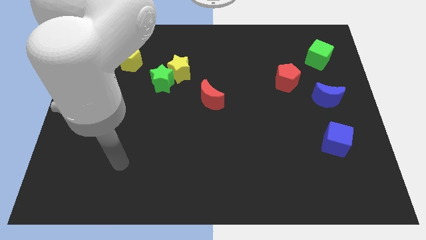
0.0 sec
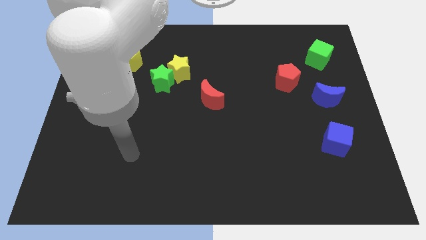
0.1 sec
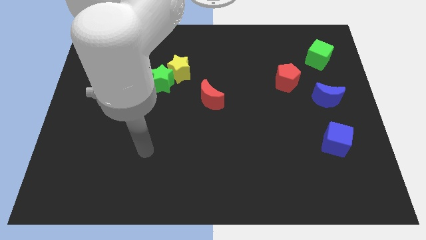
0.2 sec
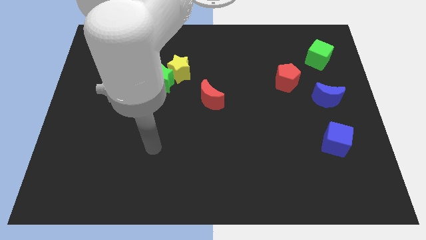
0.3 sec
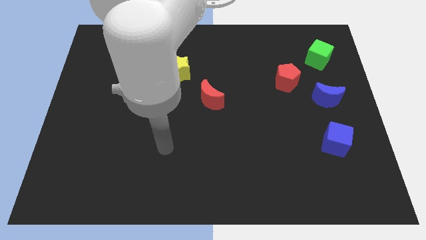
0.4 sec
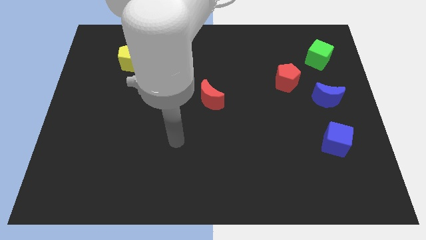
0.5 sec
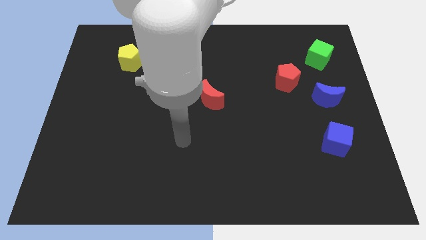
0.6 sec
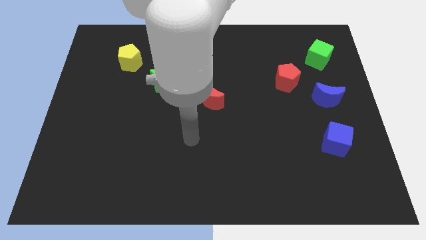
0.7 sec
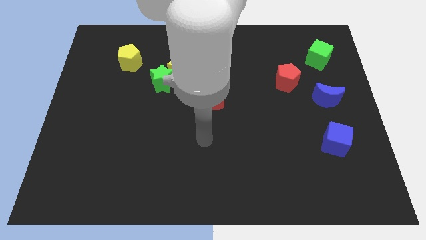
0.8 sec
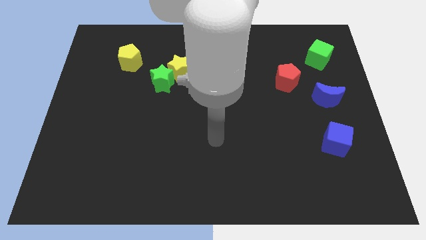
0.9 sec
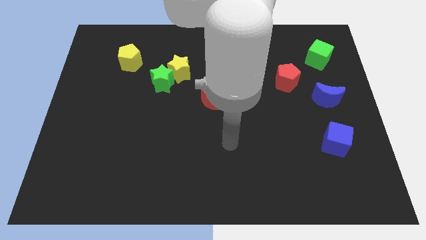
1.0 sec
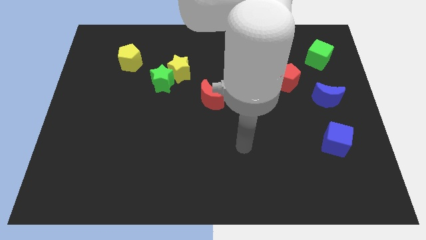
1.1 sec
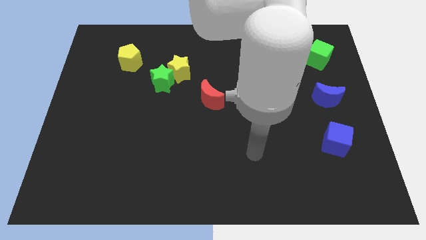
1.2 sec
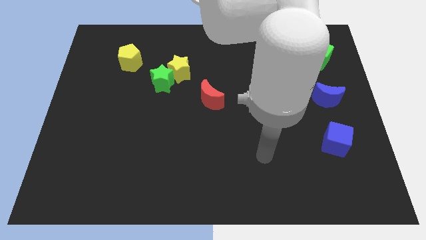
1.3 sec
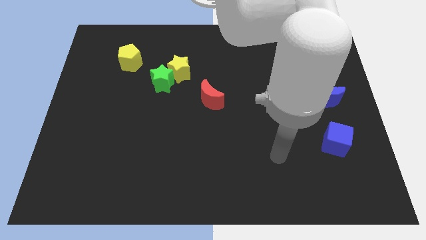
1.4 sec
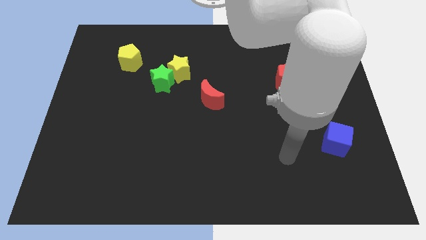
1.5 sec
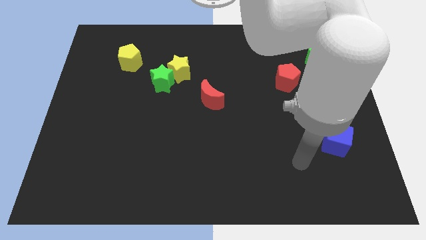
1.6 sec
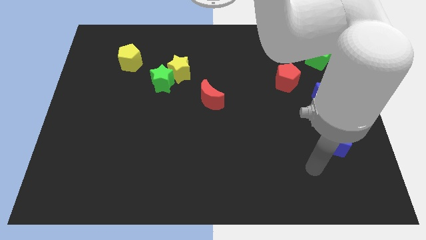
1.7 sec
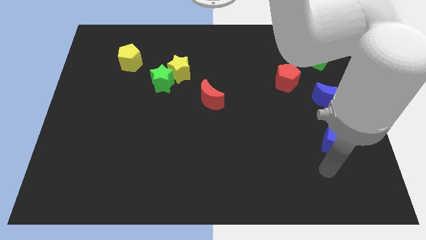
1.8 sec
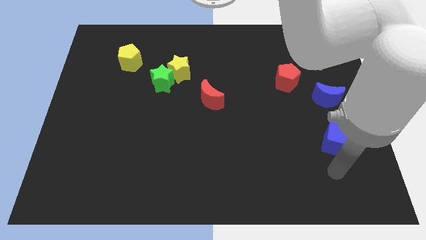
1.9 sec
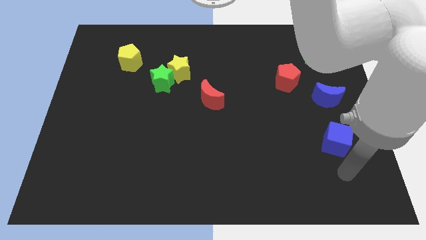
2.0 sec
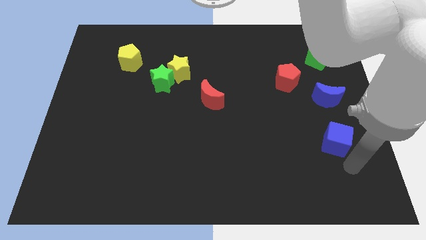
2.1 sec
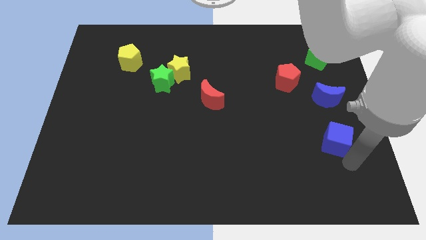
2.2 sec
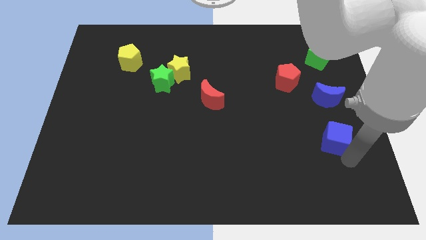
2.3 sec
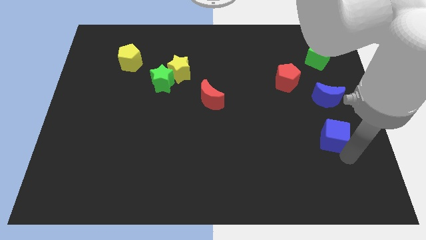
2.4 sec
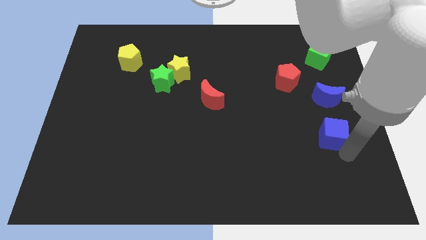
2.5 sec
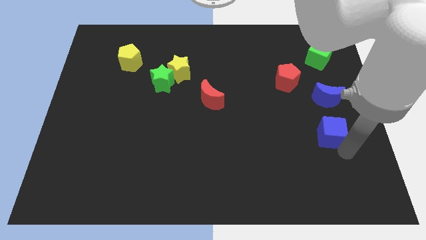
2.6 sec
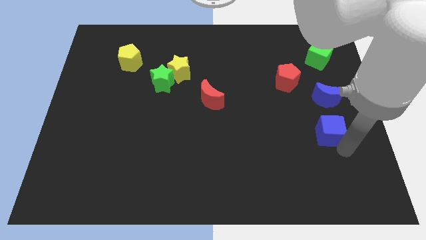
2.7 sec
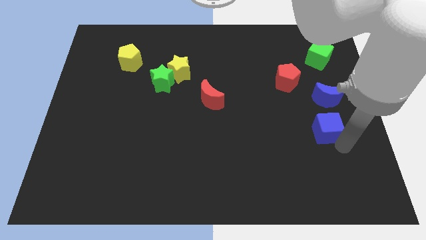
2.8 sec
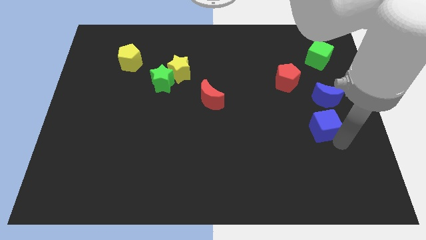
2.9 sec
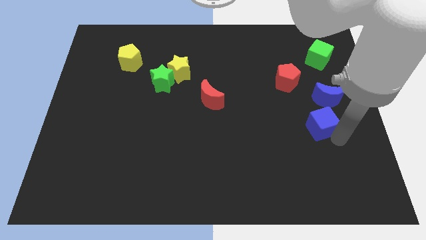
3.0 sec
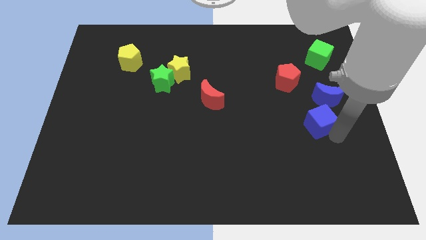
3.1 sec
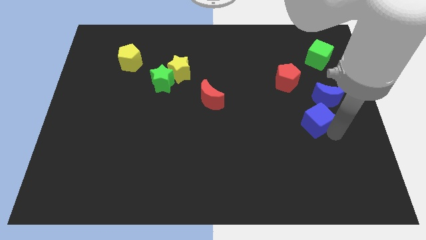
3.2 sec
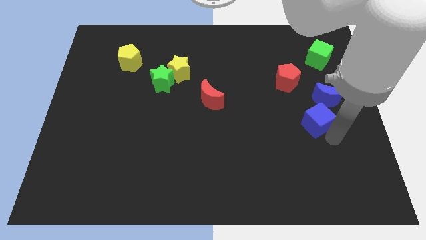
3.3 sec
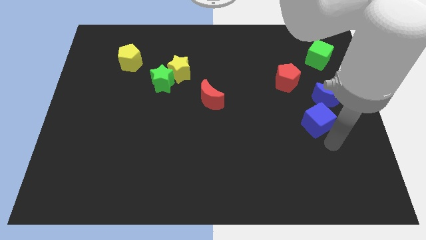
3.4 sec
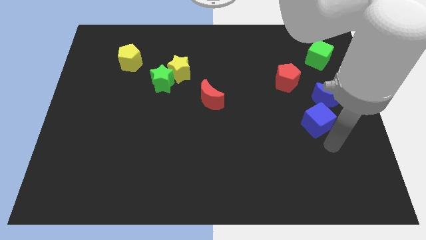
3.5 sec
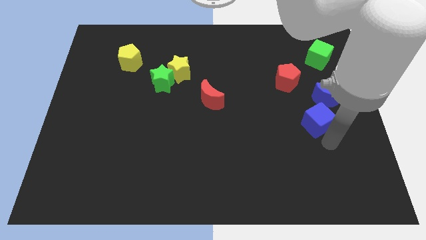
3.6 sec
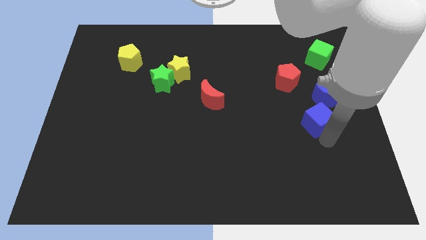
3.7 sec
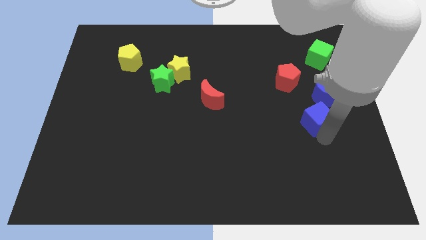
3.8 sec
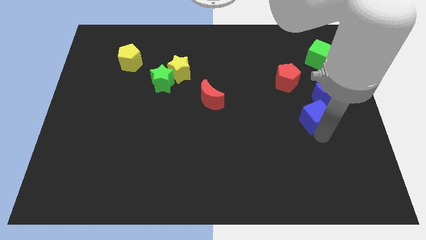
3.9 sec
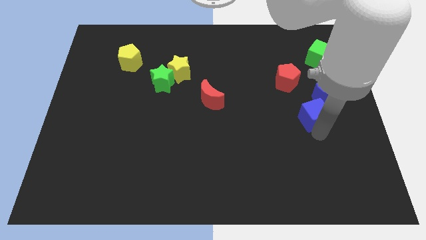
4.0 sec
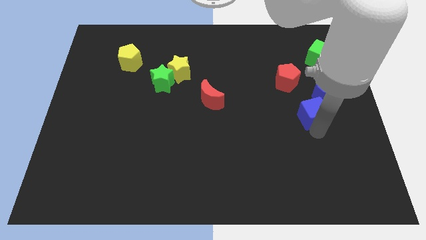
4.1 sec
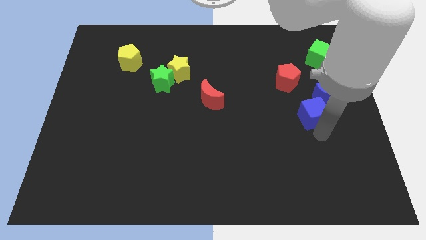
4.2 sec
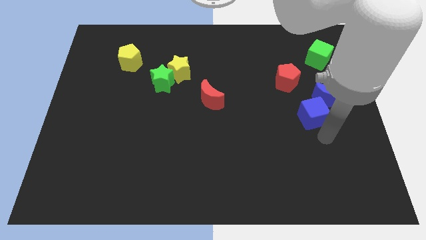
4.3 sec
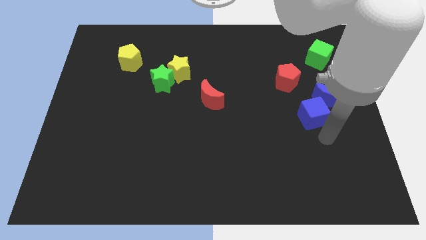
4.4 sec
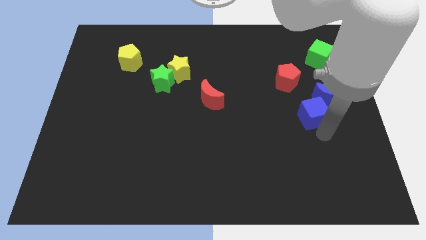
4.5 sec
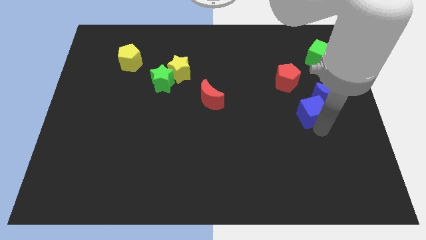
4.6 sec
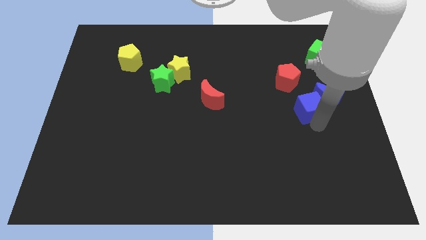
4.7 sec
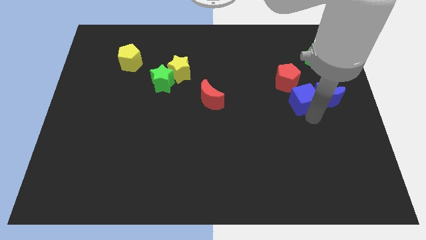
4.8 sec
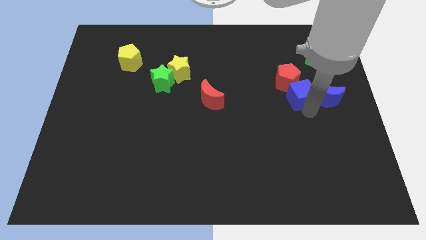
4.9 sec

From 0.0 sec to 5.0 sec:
push the blue cube towards the red pentagon

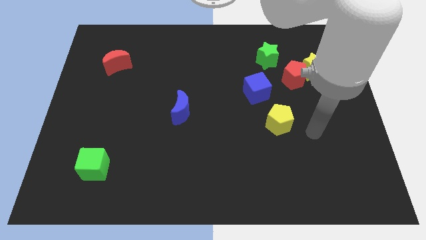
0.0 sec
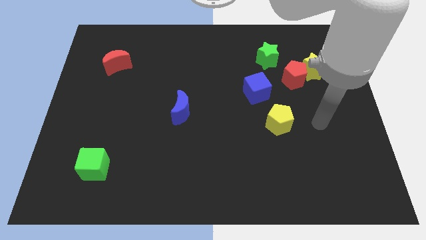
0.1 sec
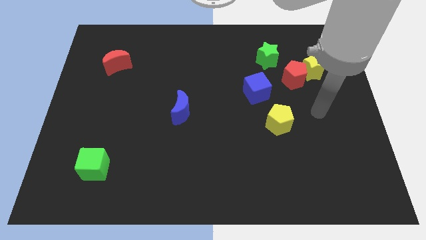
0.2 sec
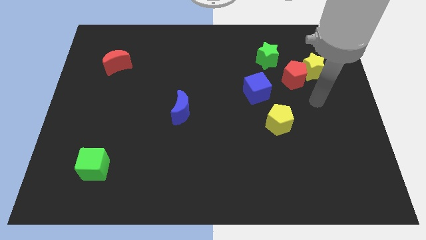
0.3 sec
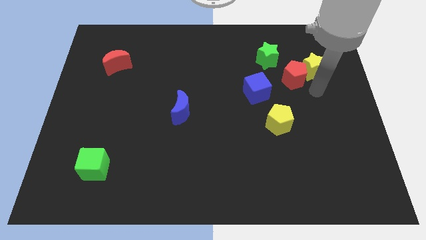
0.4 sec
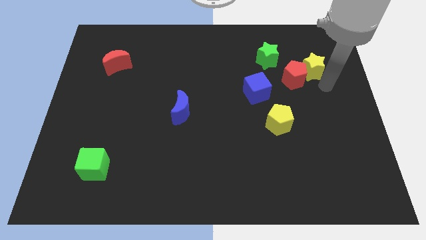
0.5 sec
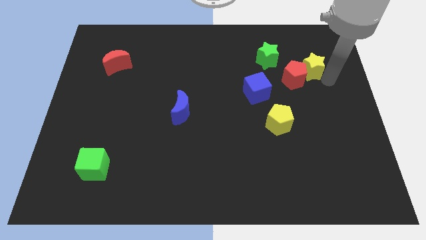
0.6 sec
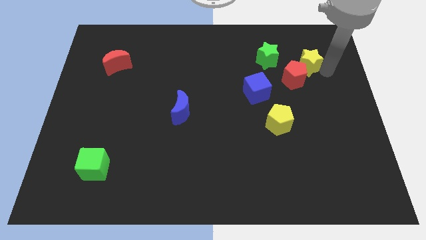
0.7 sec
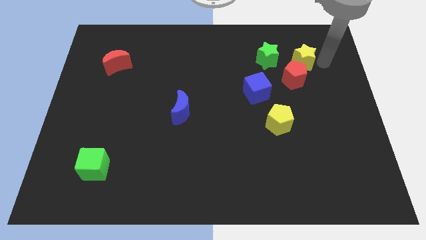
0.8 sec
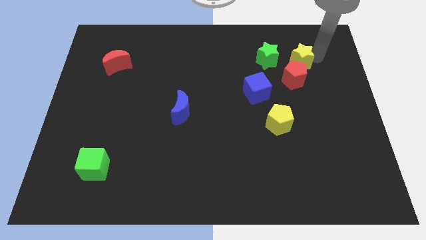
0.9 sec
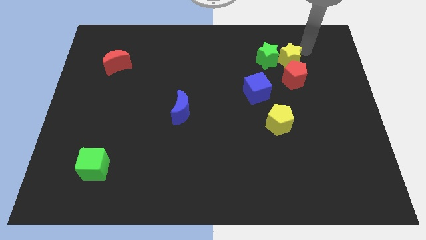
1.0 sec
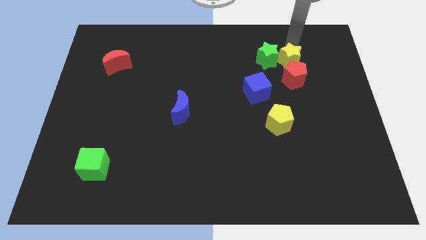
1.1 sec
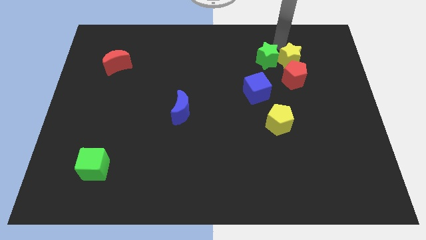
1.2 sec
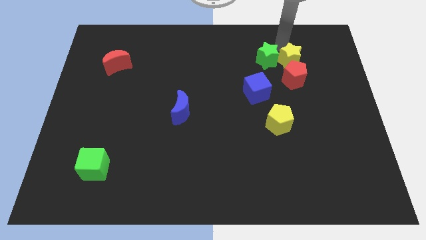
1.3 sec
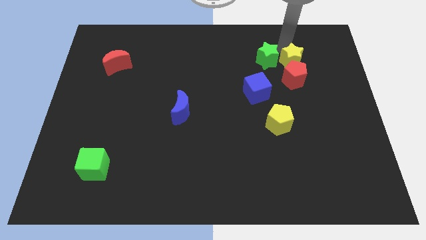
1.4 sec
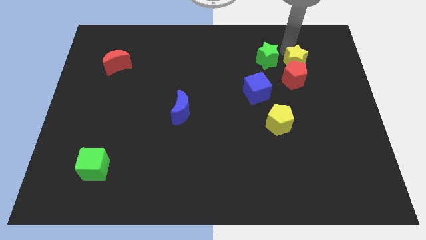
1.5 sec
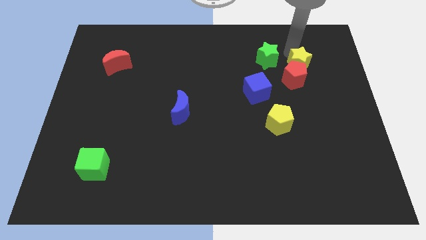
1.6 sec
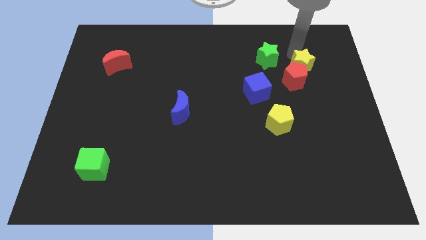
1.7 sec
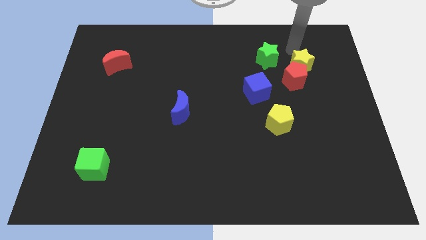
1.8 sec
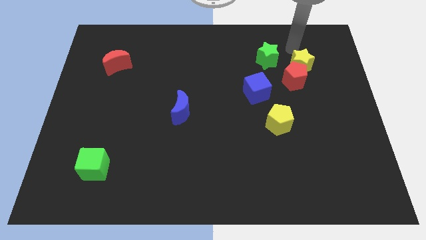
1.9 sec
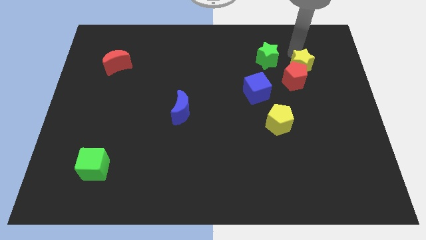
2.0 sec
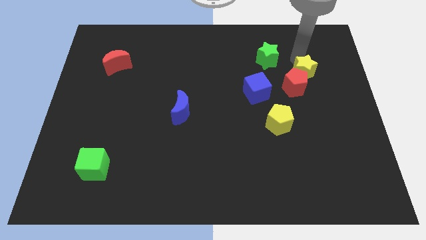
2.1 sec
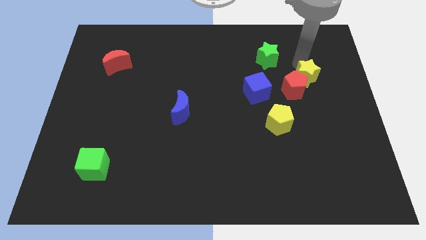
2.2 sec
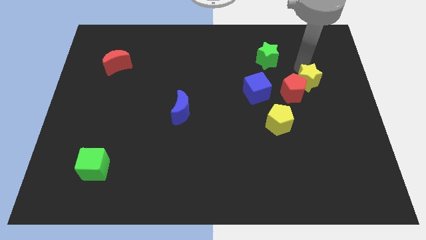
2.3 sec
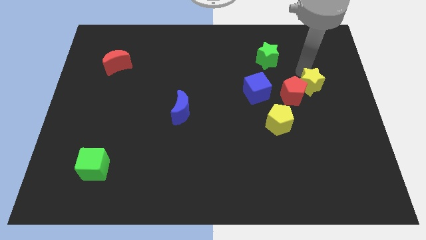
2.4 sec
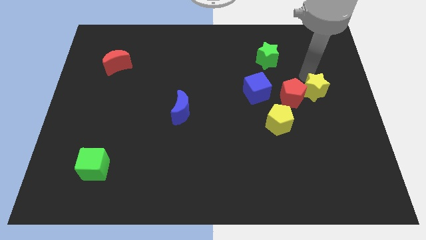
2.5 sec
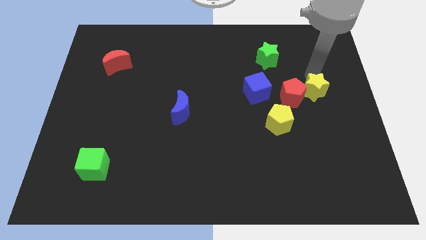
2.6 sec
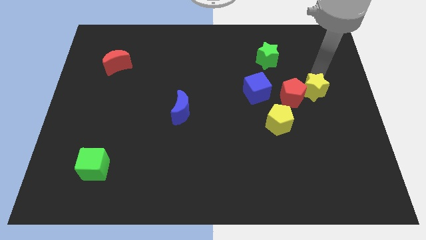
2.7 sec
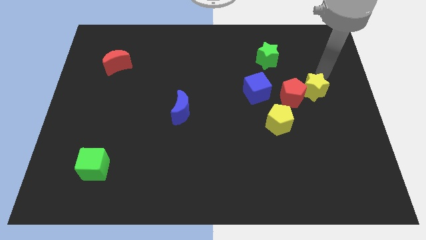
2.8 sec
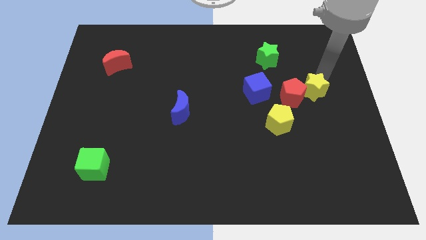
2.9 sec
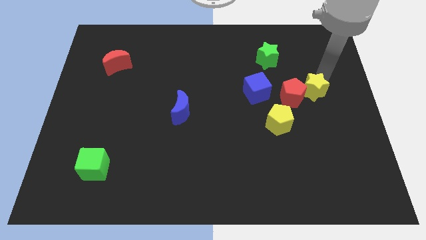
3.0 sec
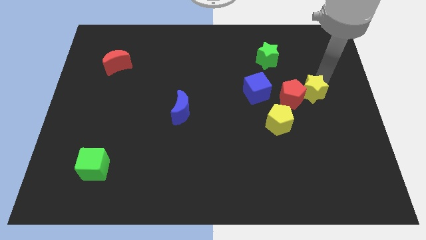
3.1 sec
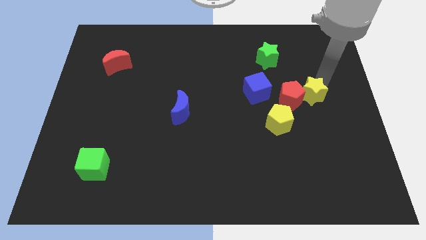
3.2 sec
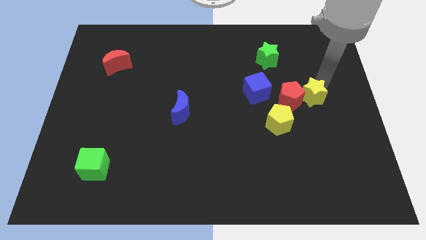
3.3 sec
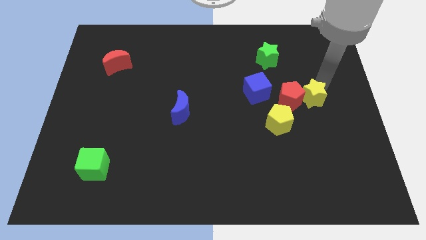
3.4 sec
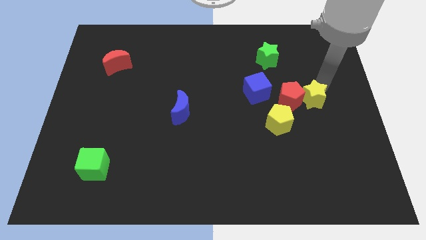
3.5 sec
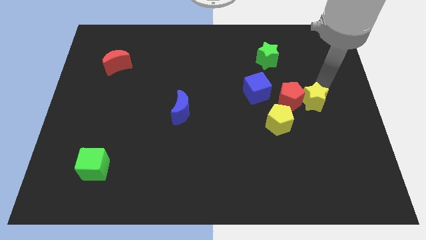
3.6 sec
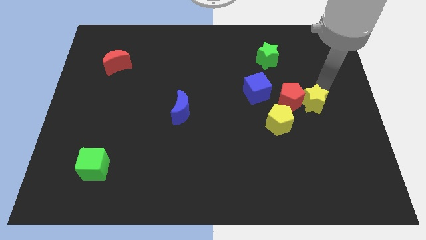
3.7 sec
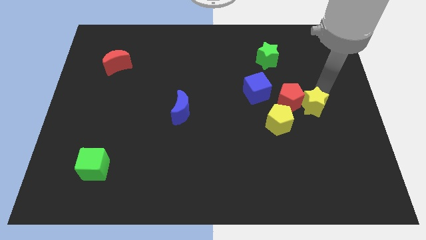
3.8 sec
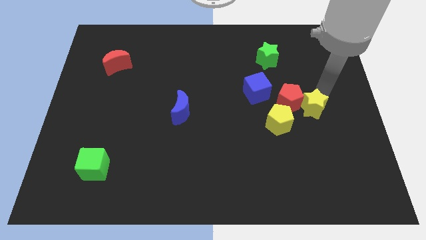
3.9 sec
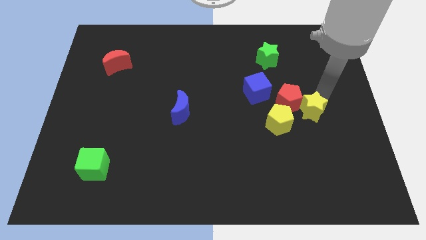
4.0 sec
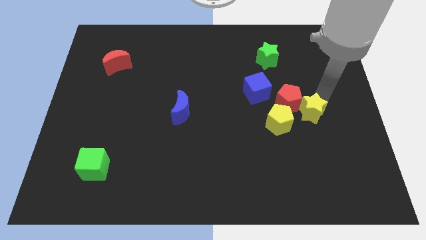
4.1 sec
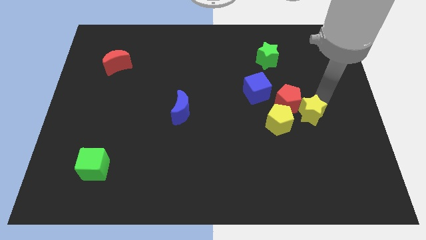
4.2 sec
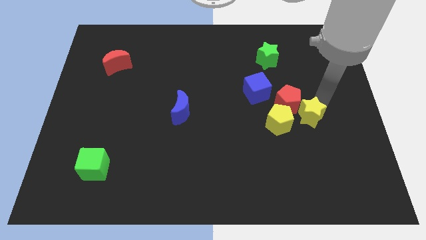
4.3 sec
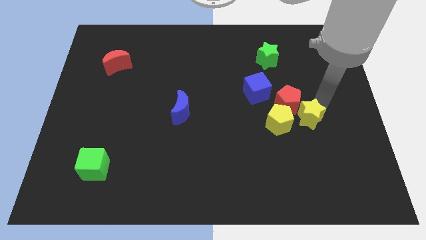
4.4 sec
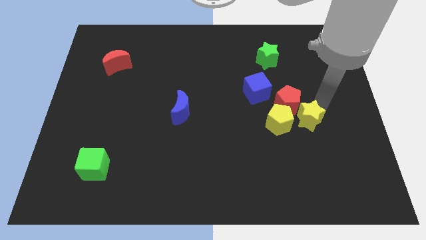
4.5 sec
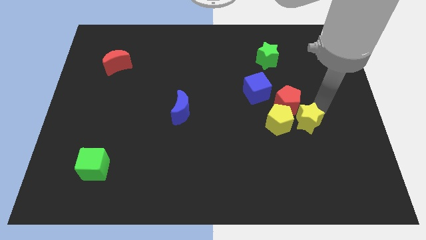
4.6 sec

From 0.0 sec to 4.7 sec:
move the yellow star close to the yellow pentagon
